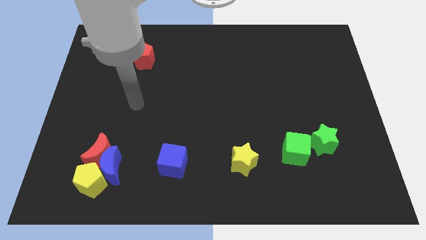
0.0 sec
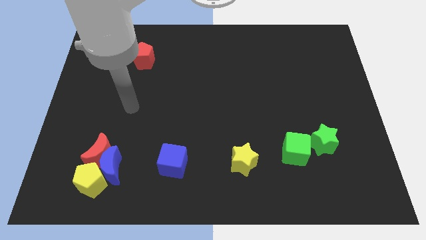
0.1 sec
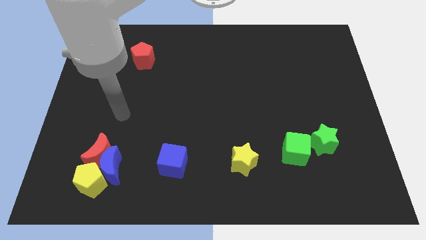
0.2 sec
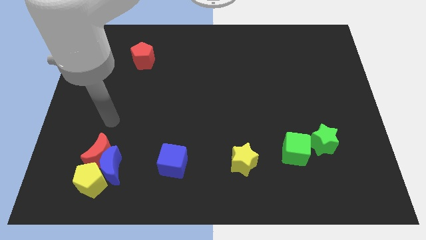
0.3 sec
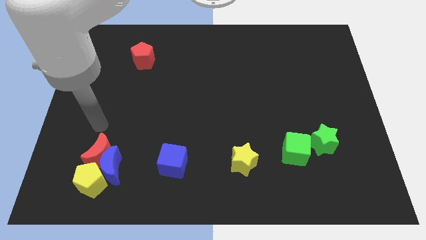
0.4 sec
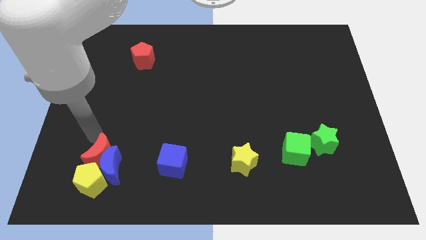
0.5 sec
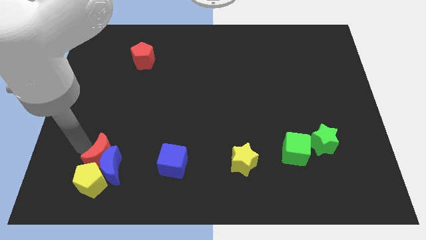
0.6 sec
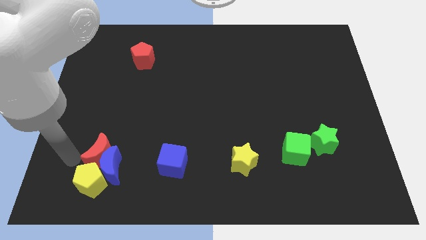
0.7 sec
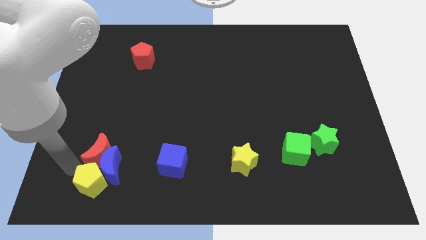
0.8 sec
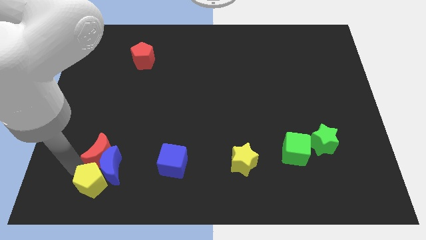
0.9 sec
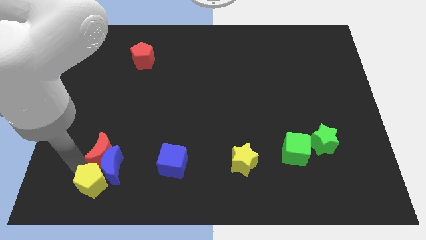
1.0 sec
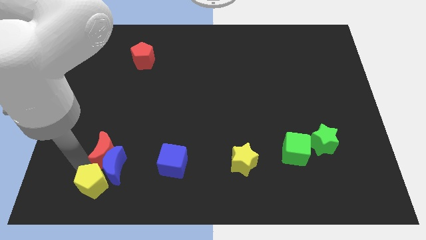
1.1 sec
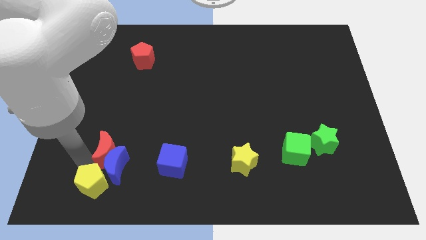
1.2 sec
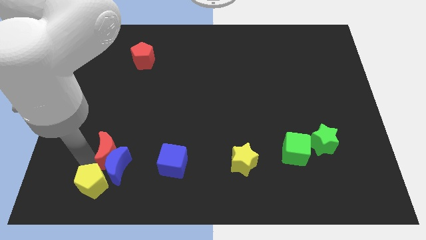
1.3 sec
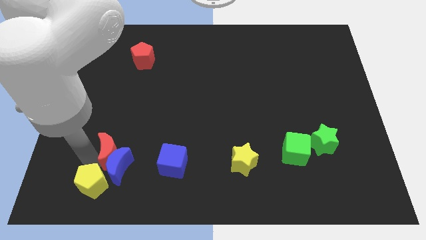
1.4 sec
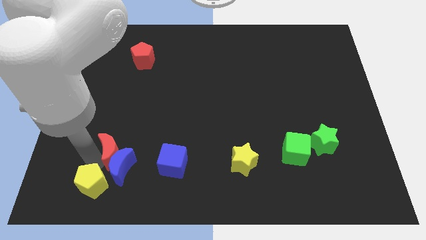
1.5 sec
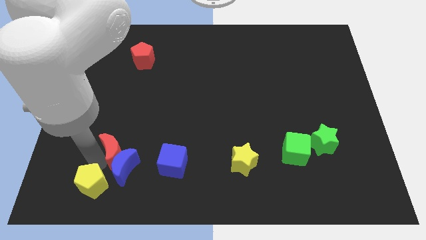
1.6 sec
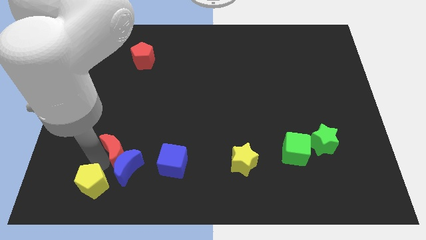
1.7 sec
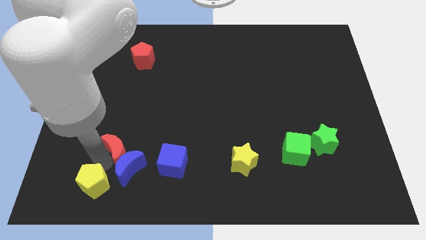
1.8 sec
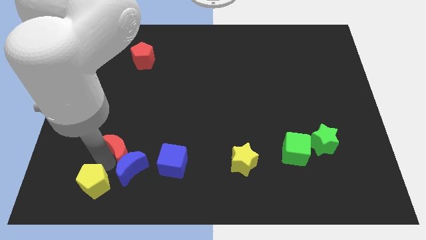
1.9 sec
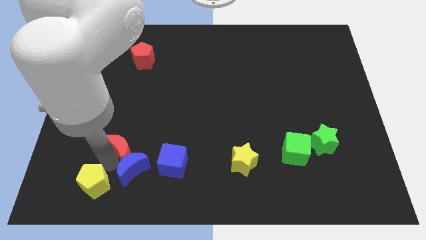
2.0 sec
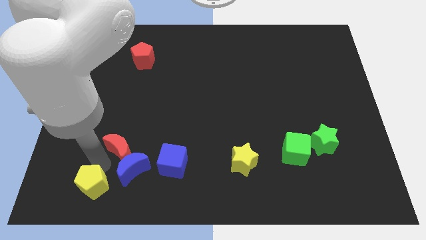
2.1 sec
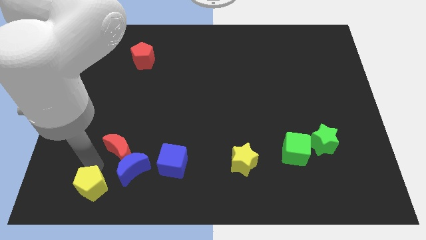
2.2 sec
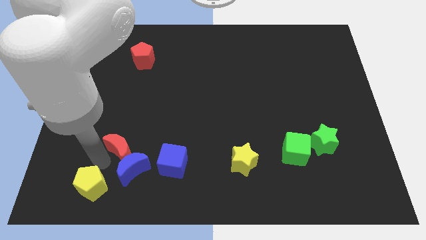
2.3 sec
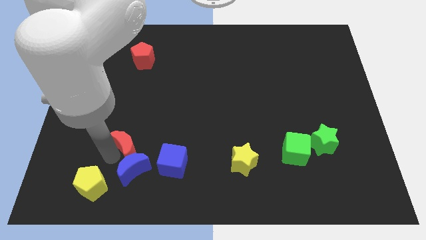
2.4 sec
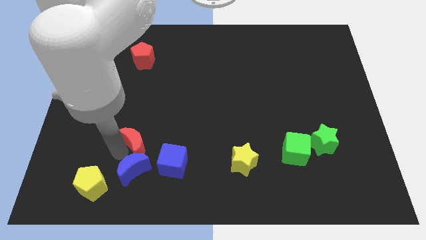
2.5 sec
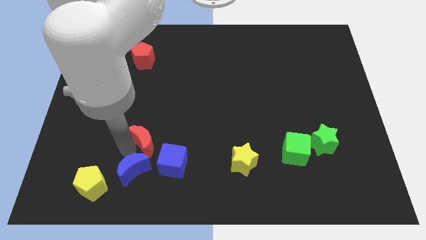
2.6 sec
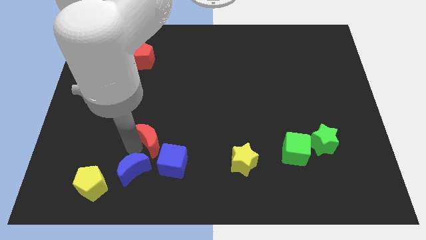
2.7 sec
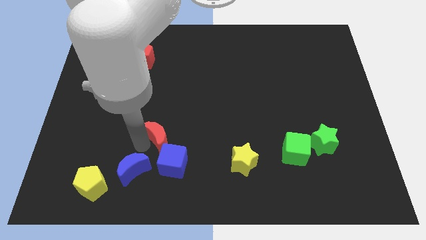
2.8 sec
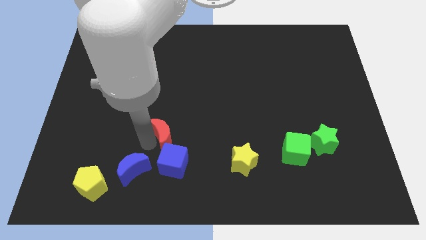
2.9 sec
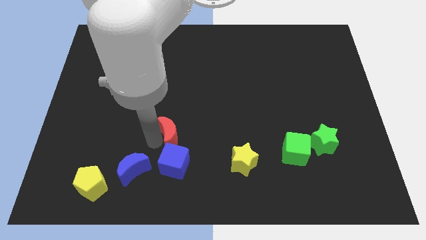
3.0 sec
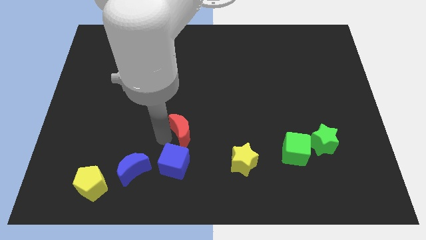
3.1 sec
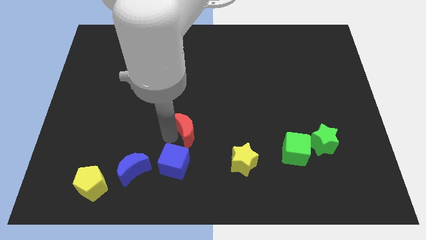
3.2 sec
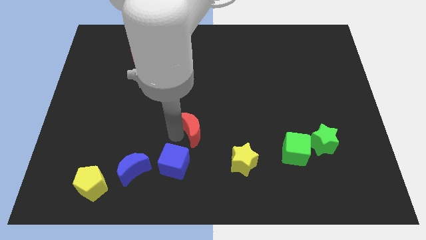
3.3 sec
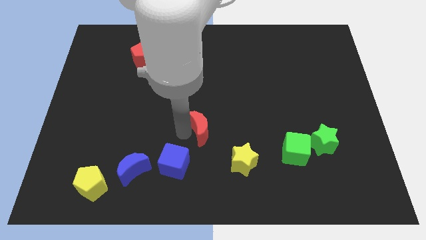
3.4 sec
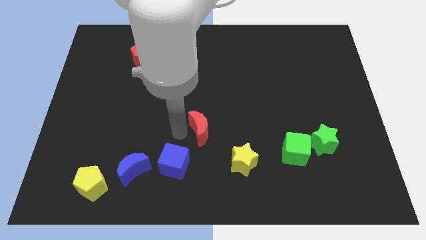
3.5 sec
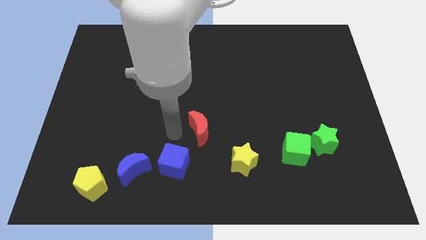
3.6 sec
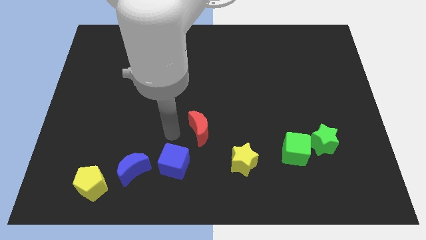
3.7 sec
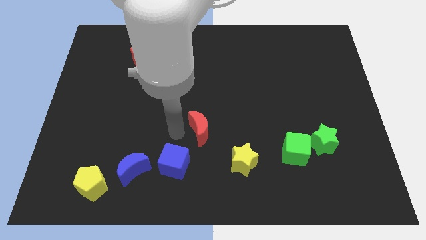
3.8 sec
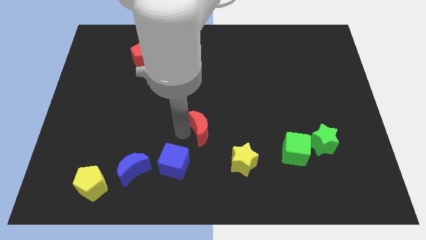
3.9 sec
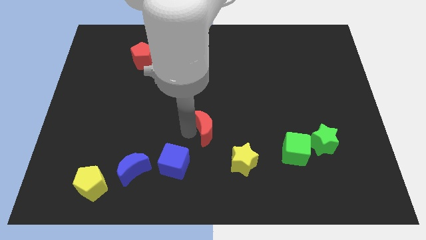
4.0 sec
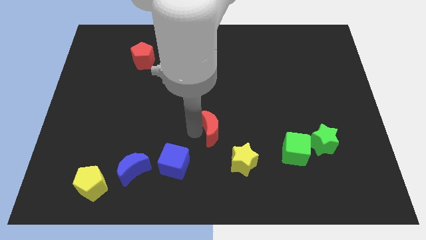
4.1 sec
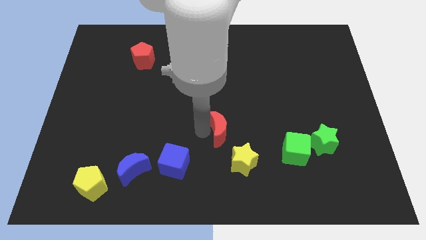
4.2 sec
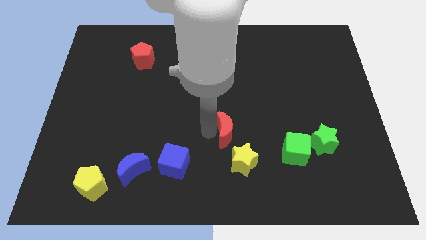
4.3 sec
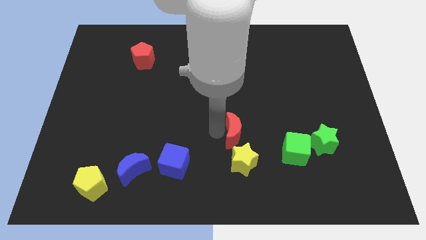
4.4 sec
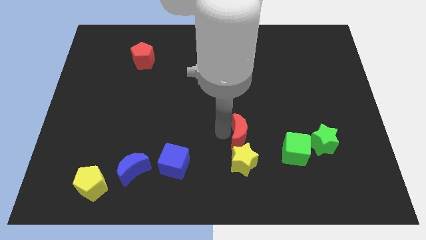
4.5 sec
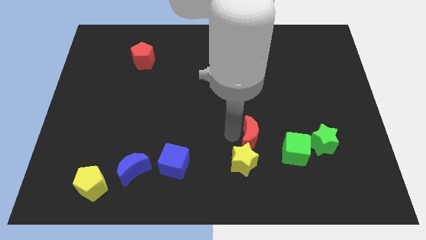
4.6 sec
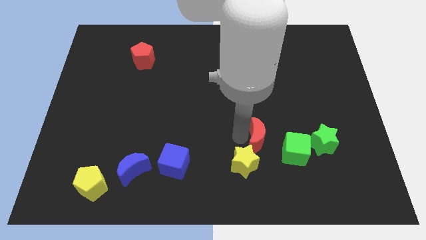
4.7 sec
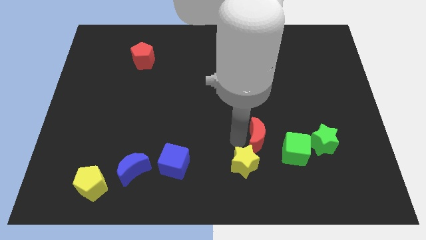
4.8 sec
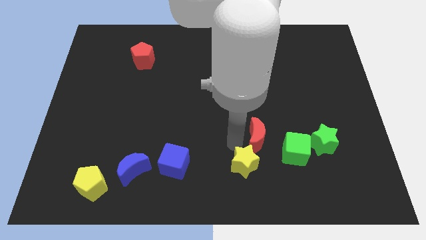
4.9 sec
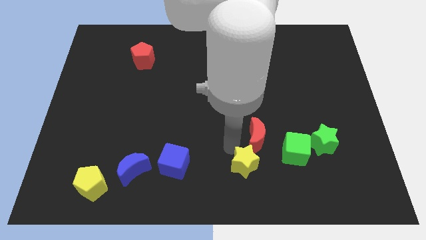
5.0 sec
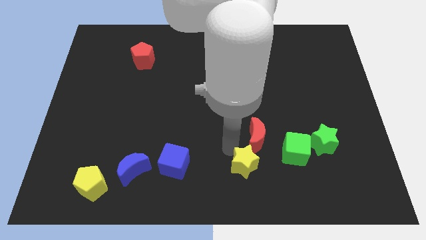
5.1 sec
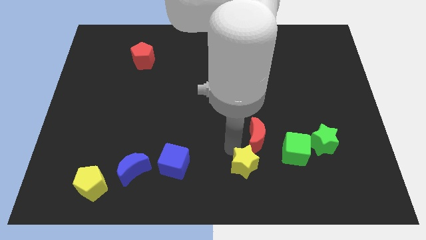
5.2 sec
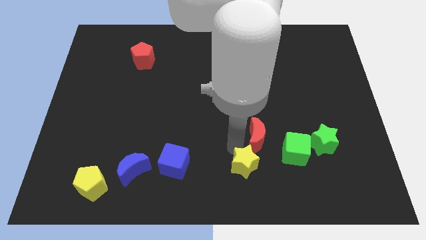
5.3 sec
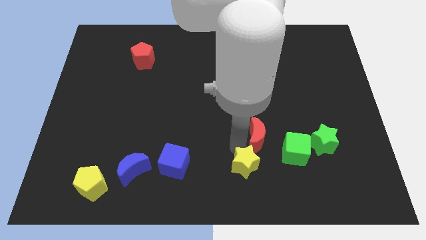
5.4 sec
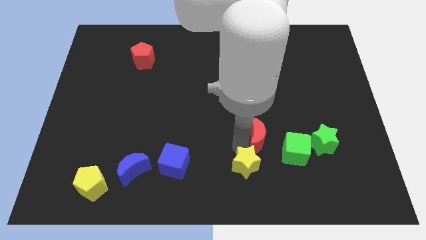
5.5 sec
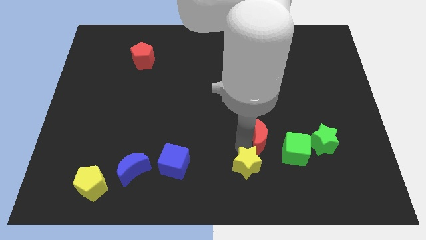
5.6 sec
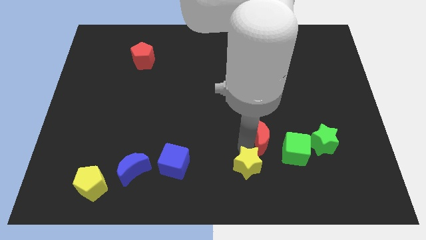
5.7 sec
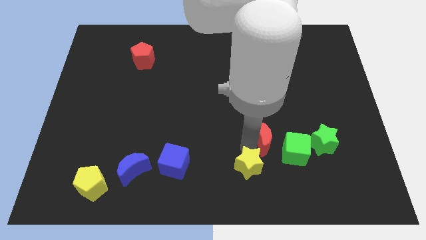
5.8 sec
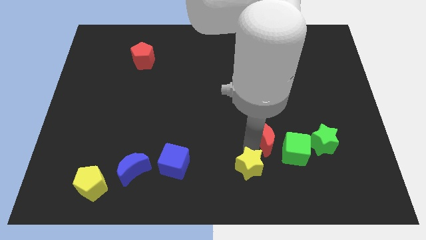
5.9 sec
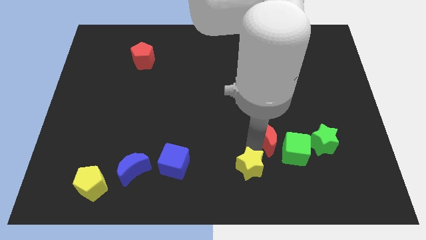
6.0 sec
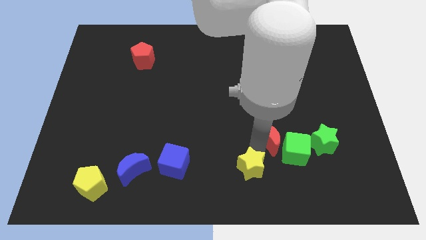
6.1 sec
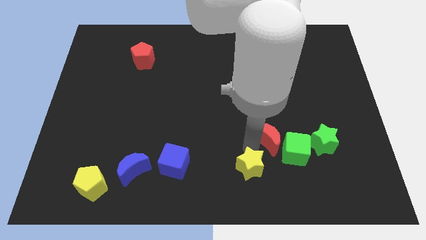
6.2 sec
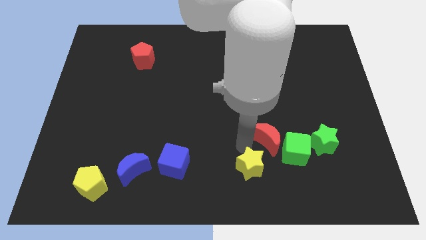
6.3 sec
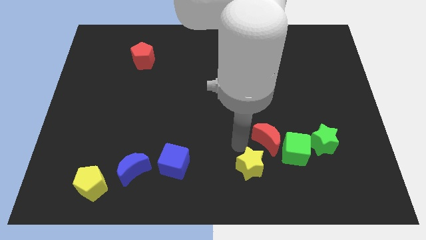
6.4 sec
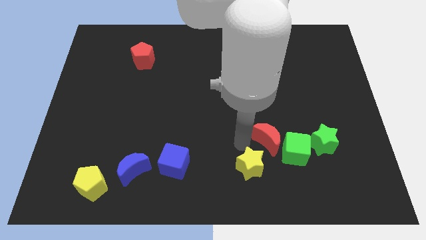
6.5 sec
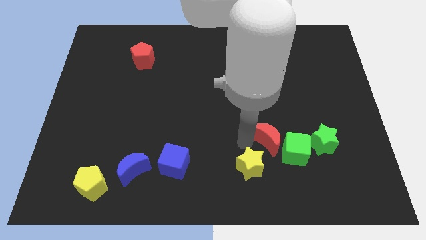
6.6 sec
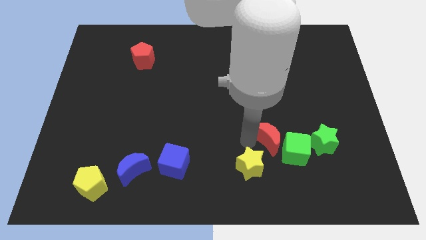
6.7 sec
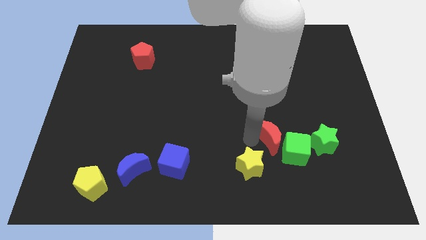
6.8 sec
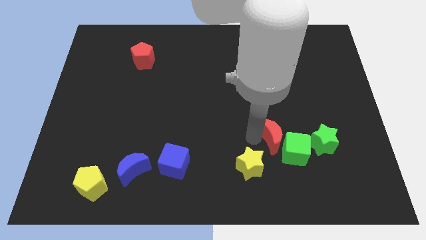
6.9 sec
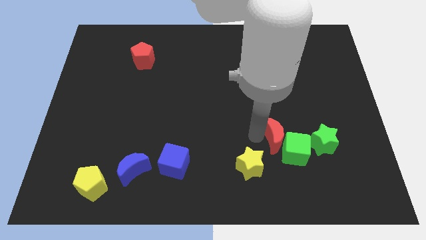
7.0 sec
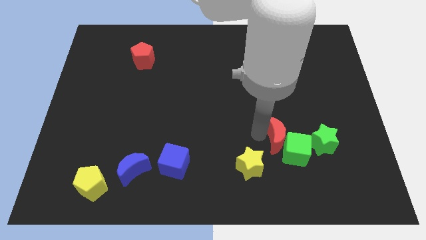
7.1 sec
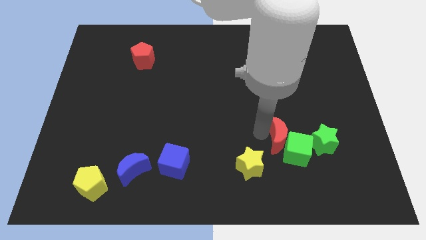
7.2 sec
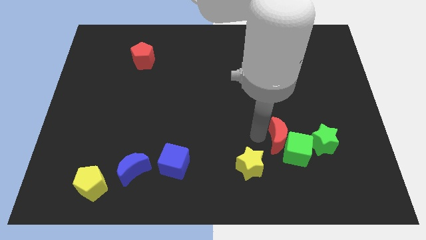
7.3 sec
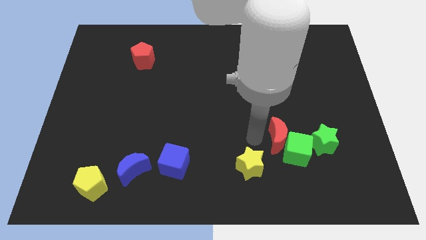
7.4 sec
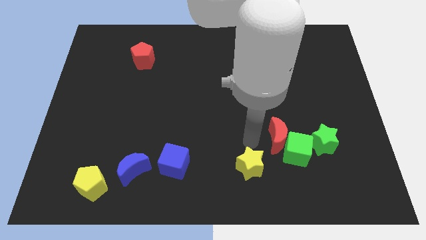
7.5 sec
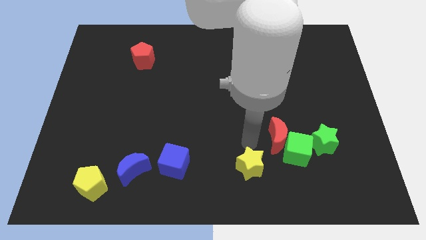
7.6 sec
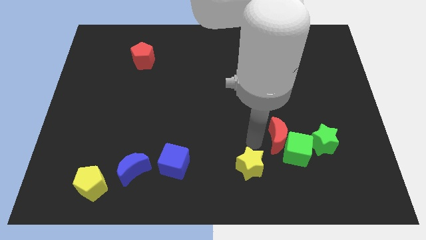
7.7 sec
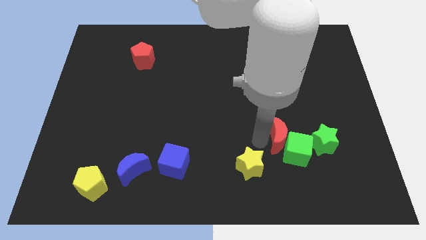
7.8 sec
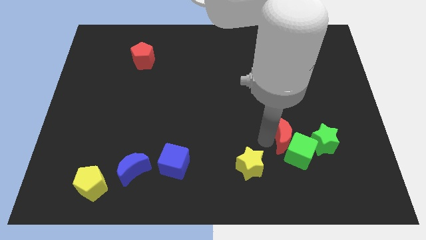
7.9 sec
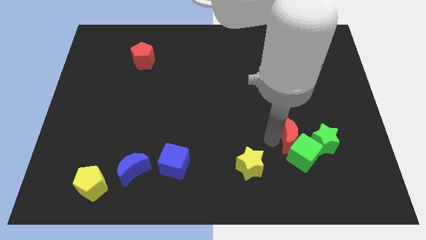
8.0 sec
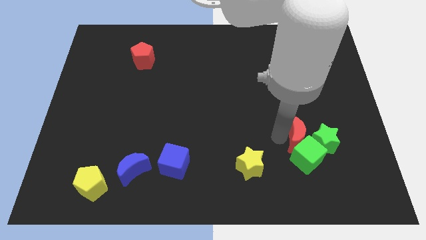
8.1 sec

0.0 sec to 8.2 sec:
put the red moon close to the green star
